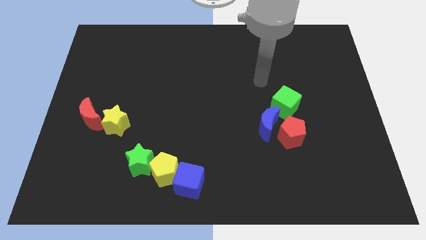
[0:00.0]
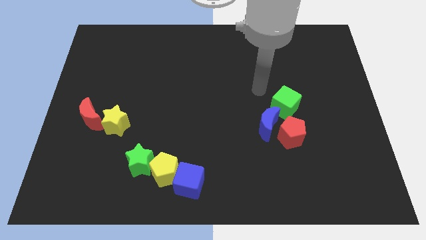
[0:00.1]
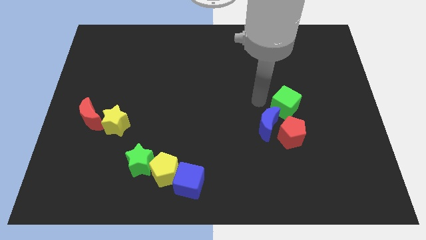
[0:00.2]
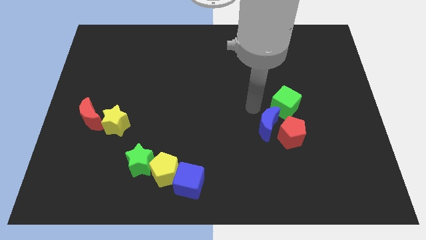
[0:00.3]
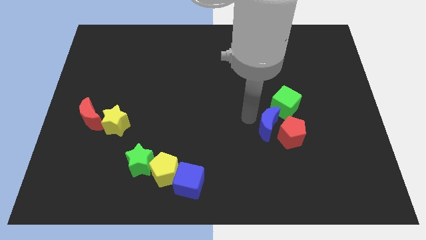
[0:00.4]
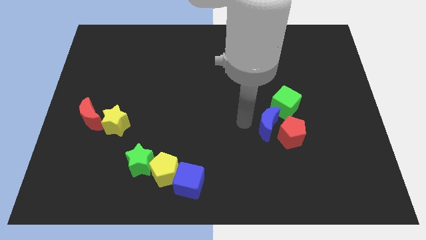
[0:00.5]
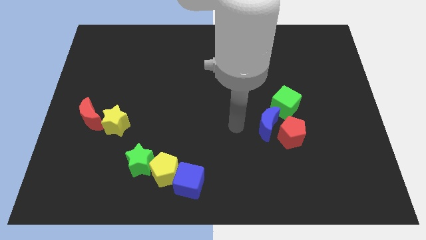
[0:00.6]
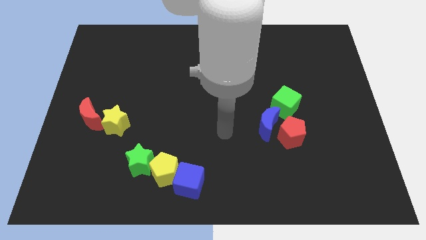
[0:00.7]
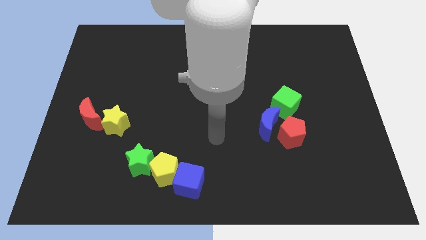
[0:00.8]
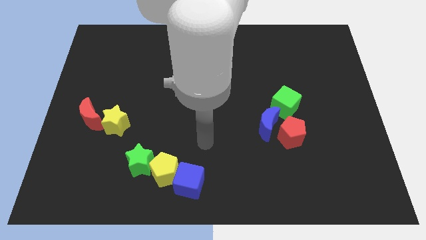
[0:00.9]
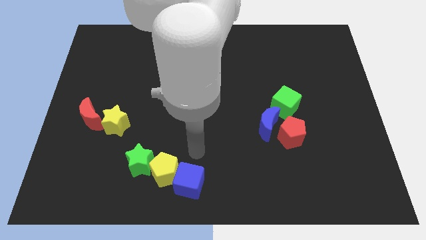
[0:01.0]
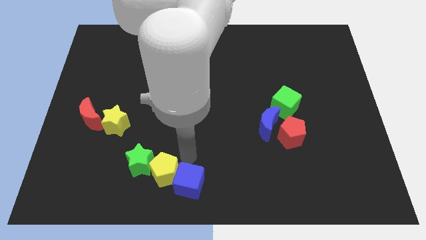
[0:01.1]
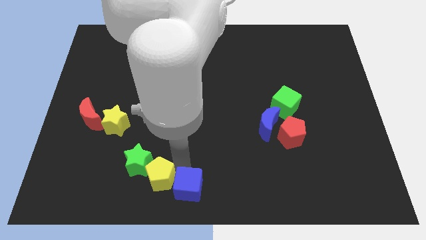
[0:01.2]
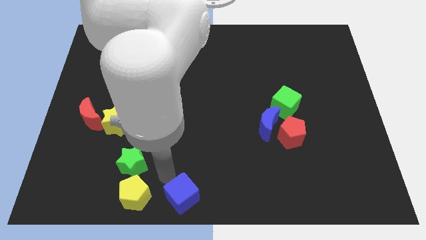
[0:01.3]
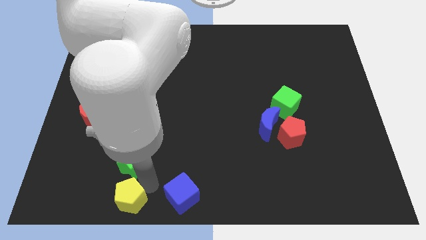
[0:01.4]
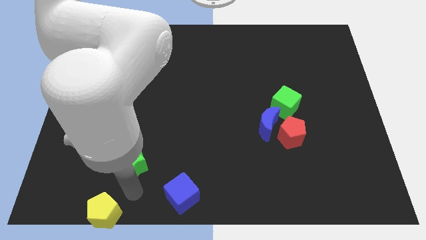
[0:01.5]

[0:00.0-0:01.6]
pull the green star apart from the yellow pentagon

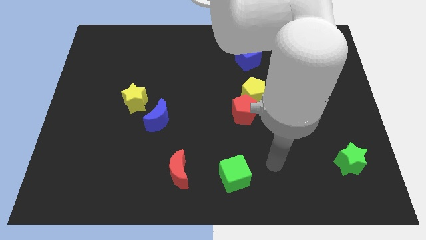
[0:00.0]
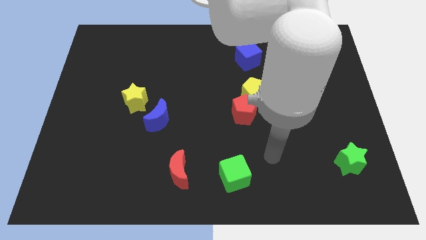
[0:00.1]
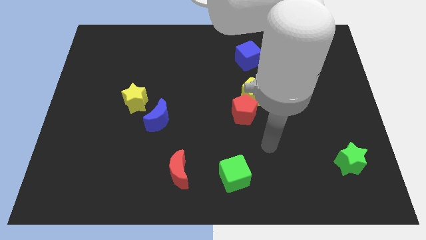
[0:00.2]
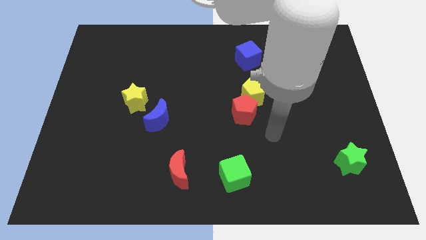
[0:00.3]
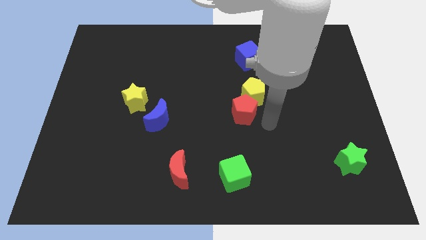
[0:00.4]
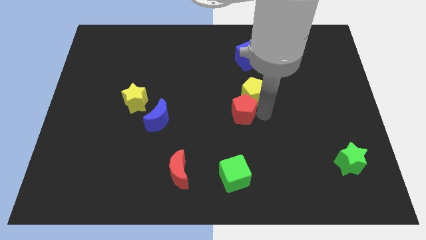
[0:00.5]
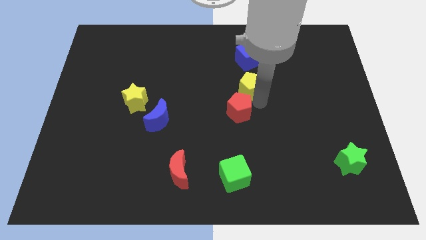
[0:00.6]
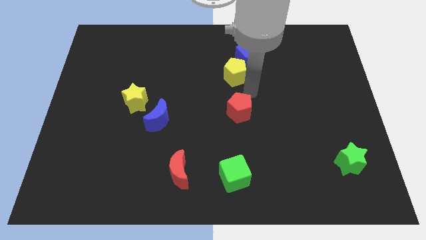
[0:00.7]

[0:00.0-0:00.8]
move the red pentagon away from the yellow pentagon

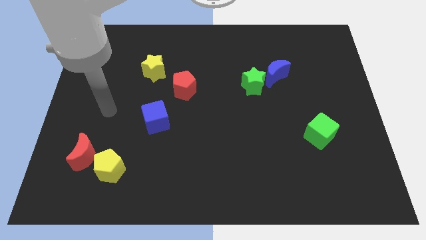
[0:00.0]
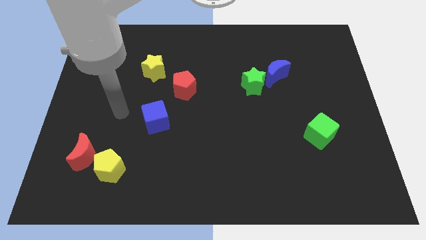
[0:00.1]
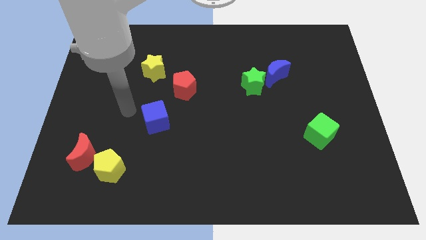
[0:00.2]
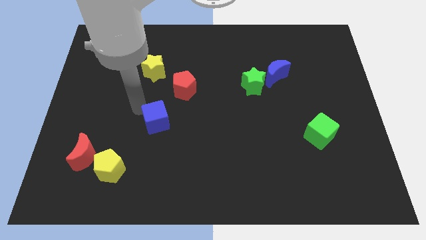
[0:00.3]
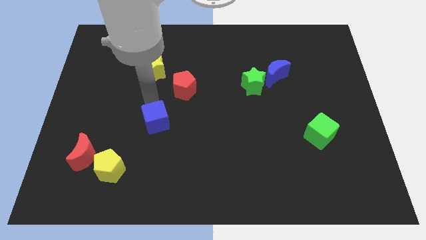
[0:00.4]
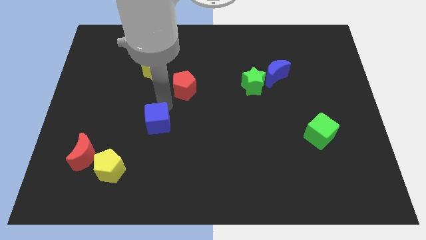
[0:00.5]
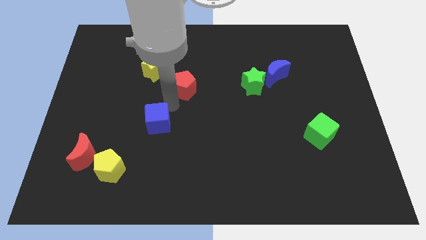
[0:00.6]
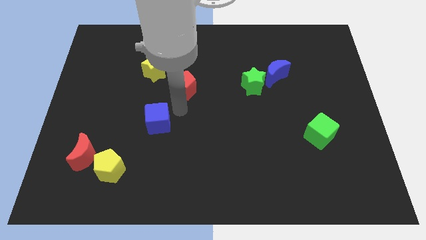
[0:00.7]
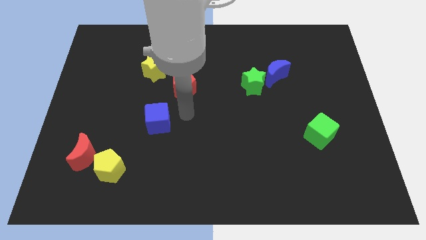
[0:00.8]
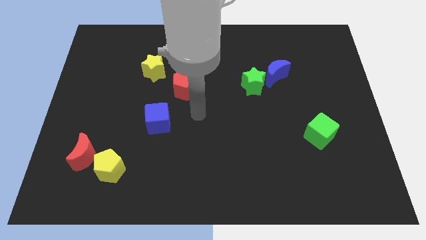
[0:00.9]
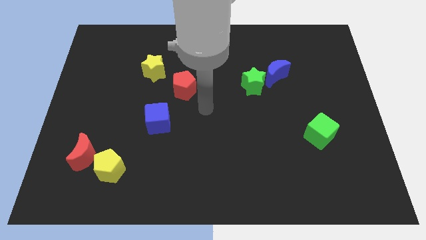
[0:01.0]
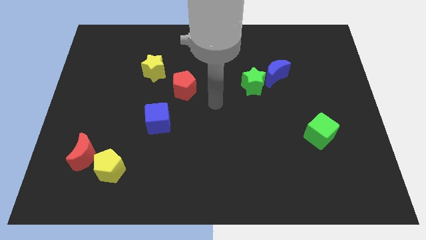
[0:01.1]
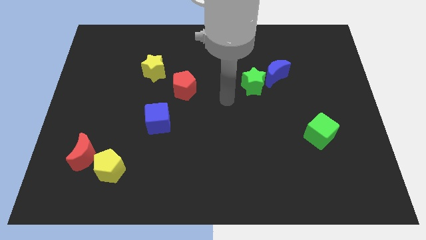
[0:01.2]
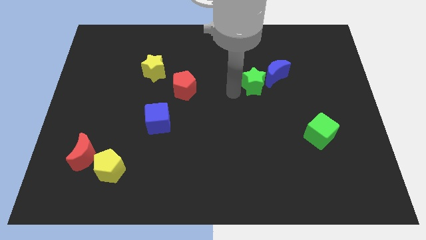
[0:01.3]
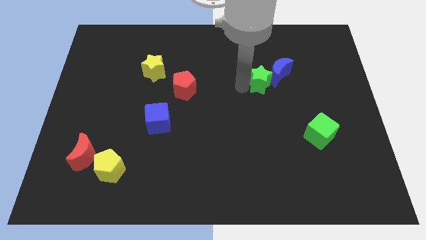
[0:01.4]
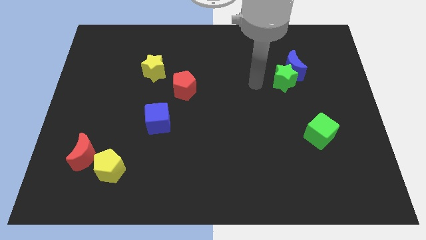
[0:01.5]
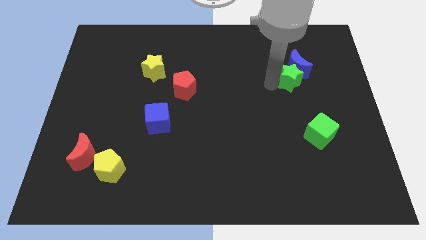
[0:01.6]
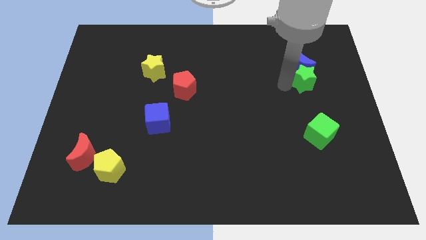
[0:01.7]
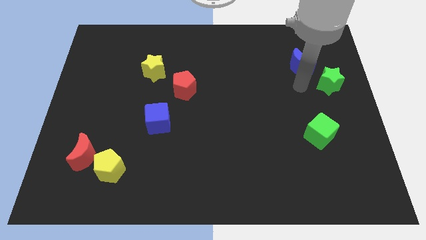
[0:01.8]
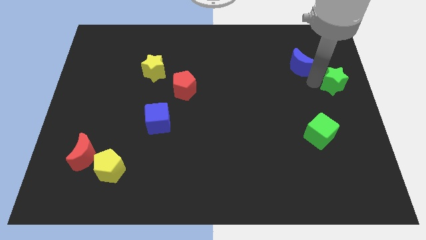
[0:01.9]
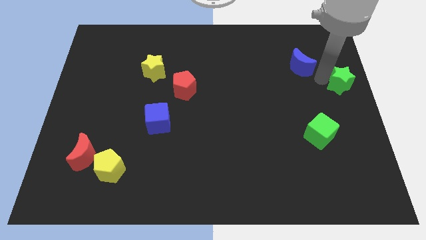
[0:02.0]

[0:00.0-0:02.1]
move the blue moon away from the green star

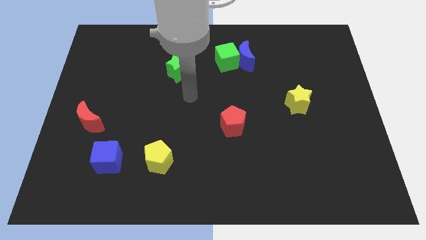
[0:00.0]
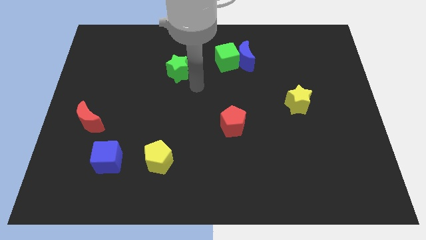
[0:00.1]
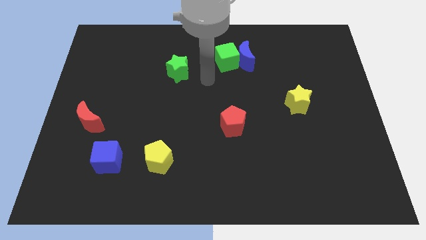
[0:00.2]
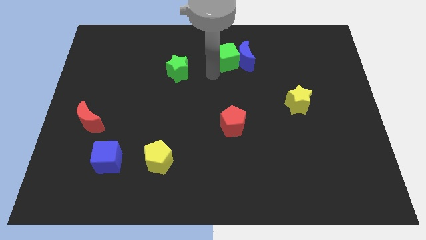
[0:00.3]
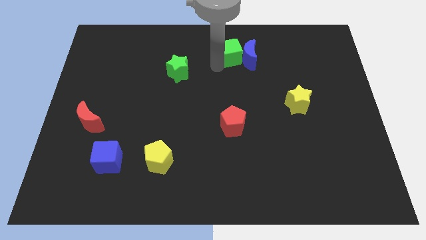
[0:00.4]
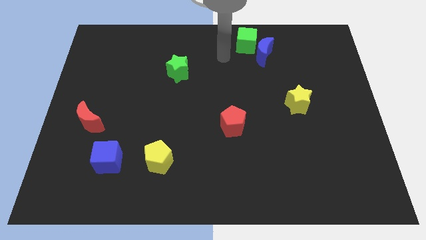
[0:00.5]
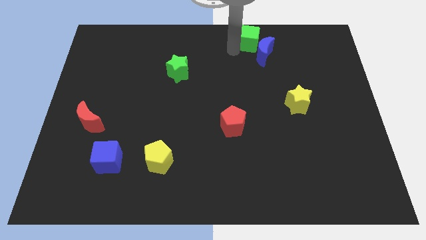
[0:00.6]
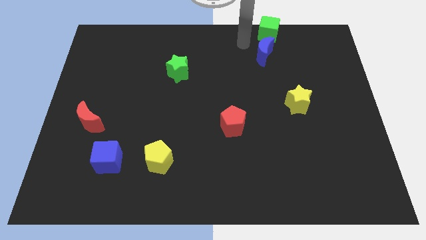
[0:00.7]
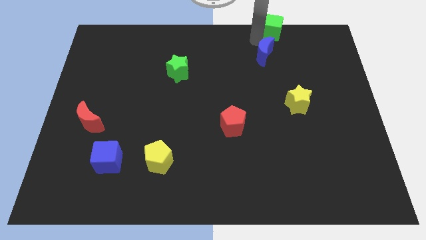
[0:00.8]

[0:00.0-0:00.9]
move the blue moon away from the green cube

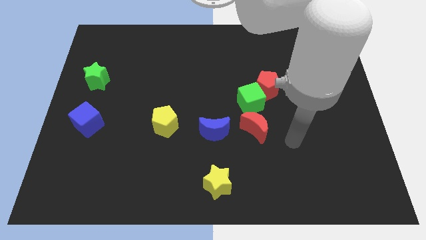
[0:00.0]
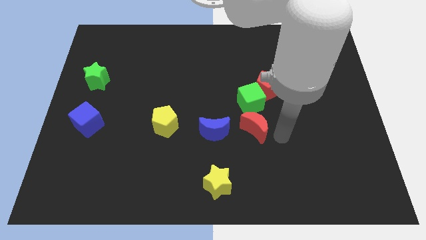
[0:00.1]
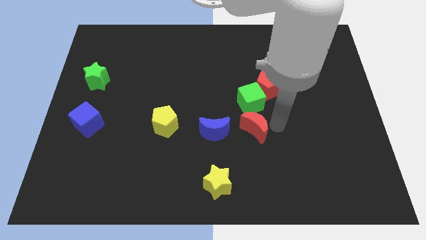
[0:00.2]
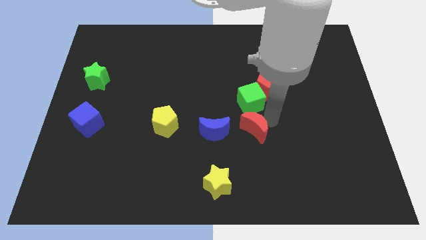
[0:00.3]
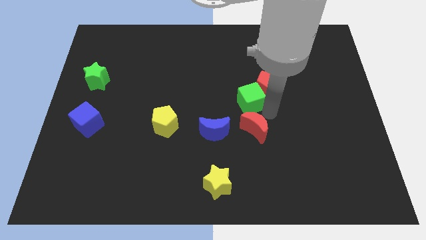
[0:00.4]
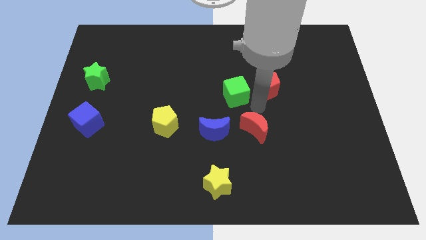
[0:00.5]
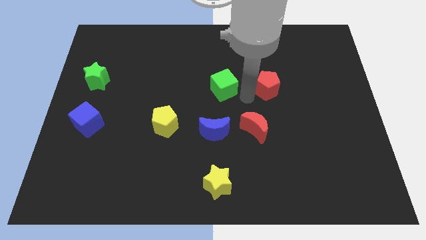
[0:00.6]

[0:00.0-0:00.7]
pull the red pentagon apart from the green cube

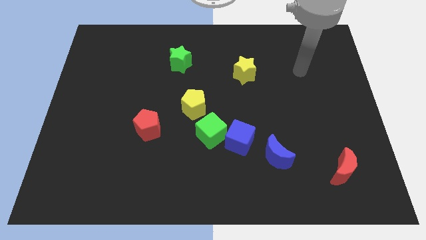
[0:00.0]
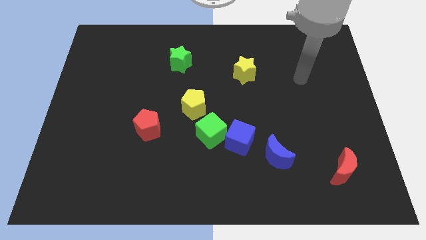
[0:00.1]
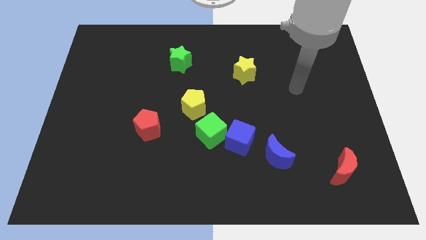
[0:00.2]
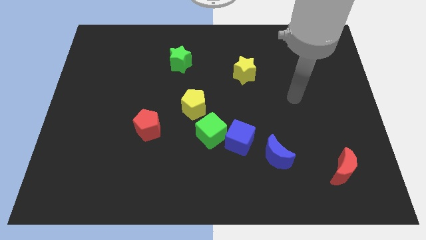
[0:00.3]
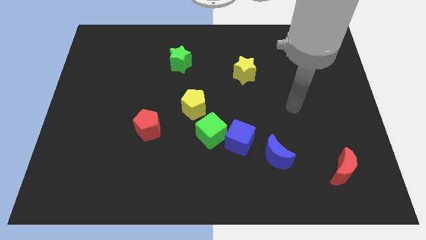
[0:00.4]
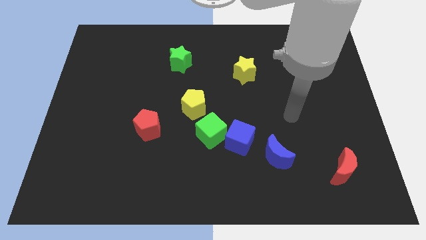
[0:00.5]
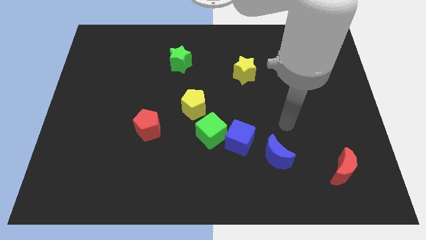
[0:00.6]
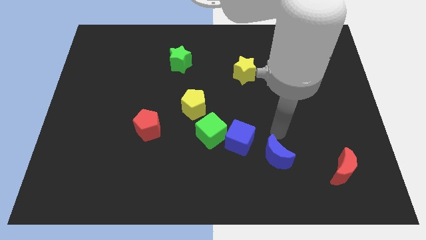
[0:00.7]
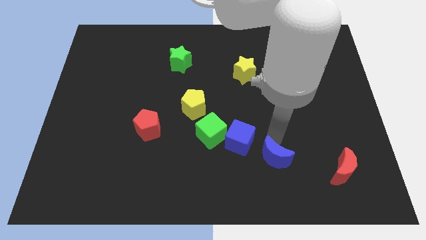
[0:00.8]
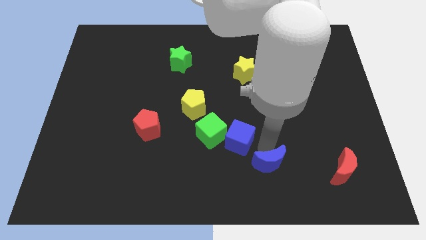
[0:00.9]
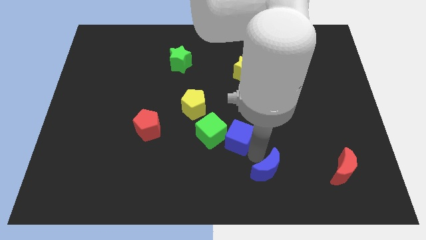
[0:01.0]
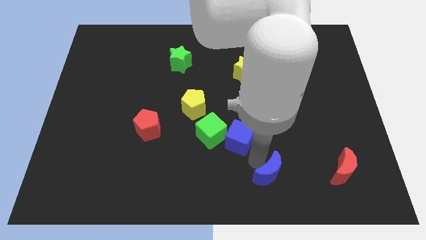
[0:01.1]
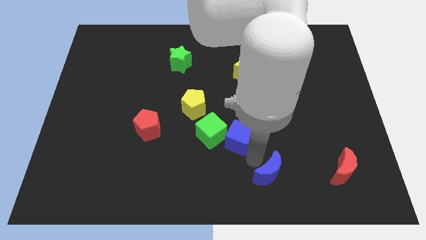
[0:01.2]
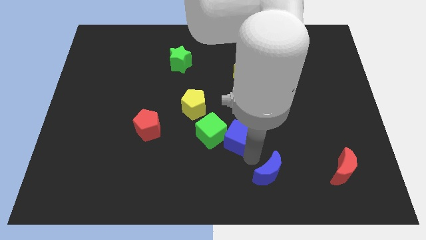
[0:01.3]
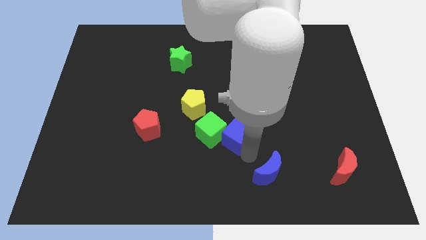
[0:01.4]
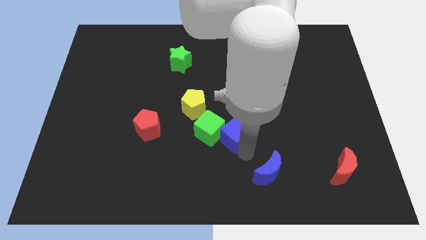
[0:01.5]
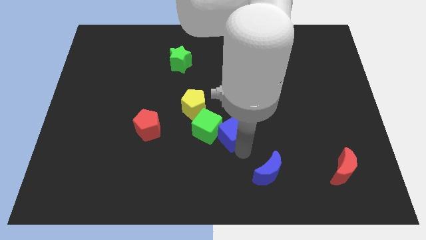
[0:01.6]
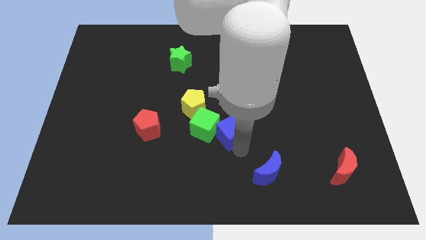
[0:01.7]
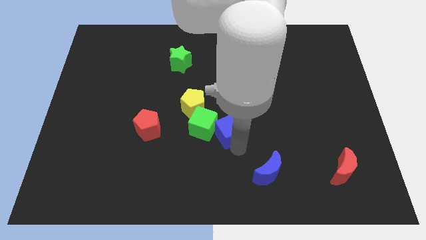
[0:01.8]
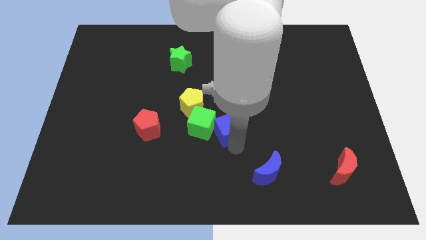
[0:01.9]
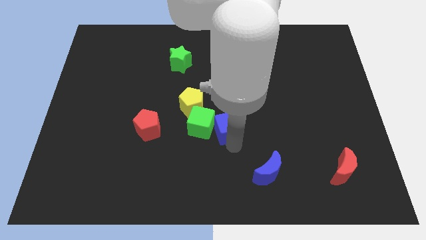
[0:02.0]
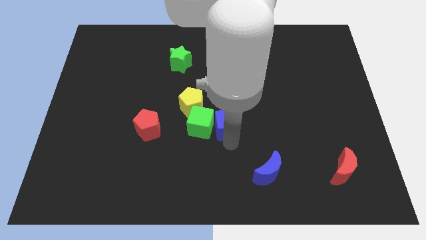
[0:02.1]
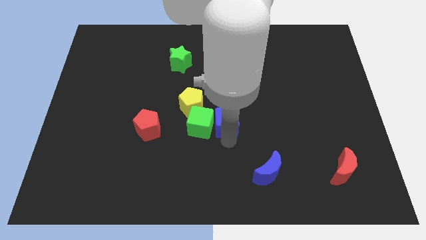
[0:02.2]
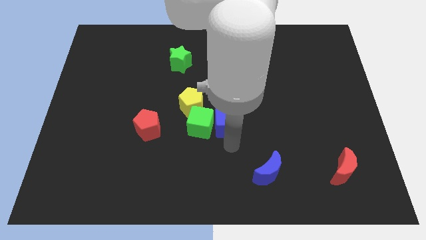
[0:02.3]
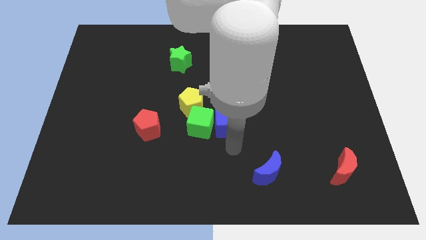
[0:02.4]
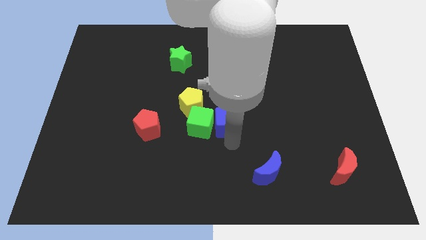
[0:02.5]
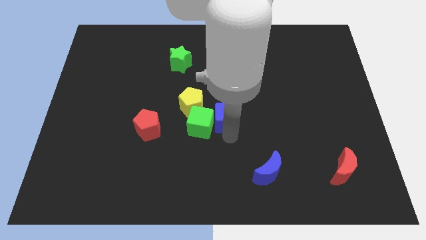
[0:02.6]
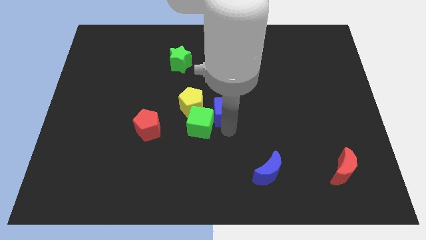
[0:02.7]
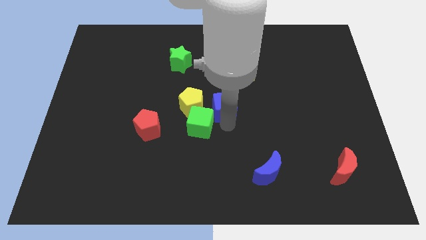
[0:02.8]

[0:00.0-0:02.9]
separate the blue cube from the green cube and blue moon

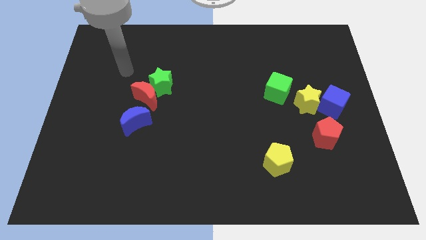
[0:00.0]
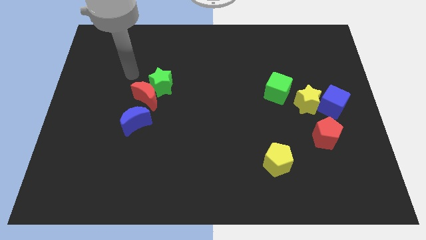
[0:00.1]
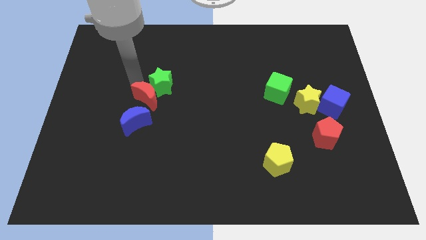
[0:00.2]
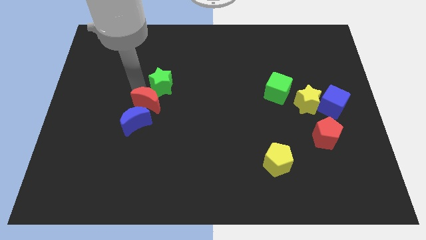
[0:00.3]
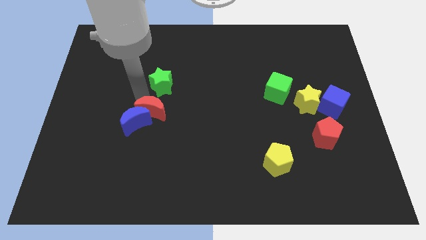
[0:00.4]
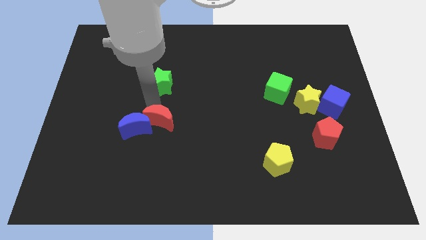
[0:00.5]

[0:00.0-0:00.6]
pull the green star apart from the red moon
